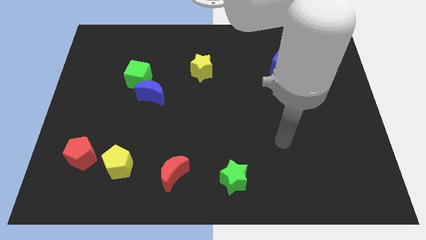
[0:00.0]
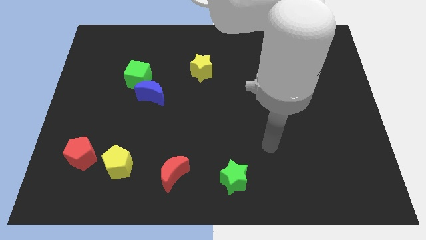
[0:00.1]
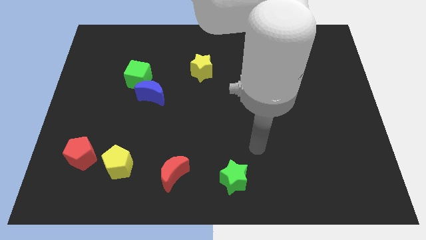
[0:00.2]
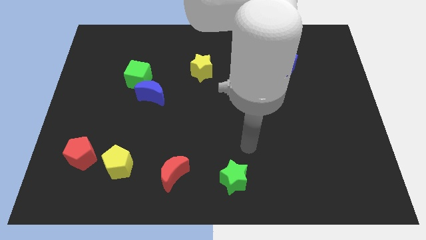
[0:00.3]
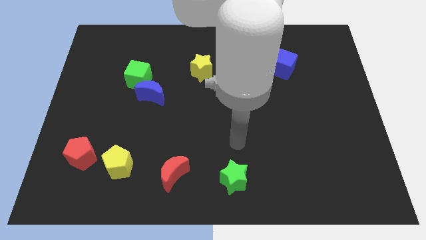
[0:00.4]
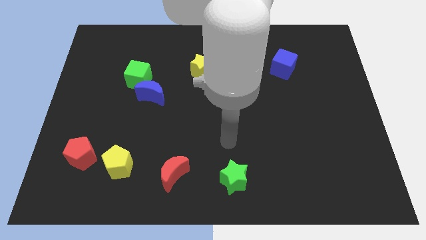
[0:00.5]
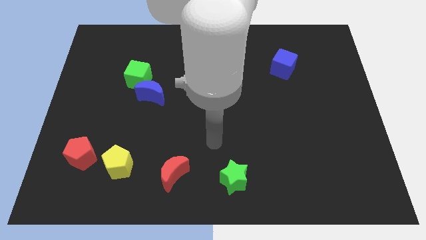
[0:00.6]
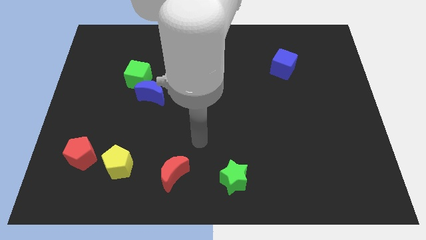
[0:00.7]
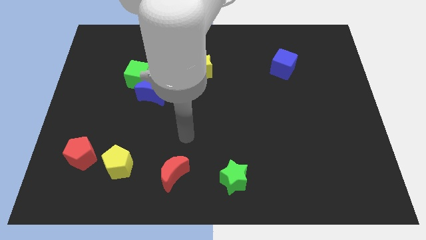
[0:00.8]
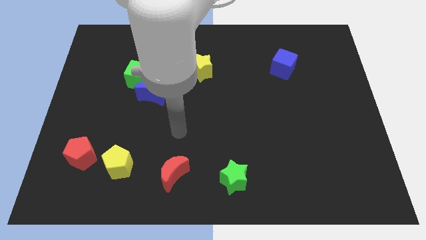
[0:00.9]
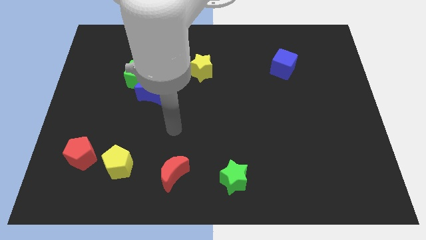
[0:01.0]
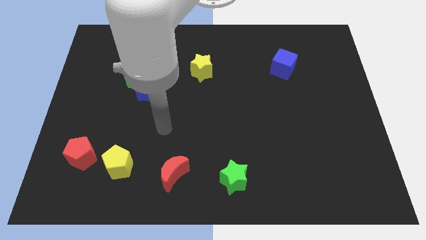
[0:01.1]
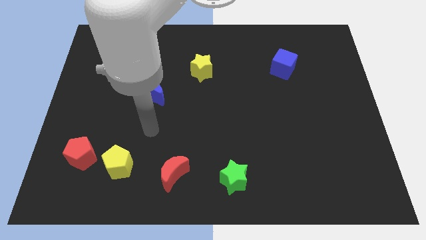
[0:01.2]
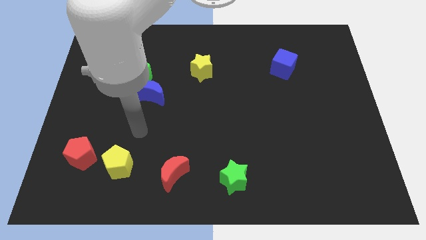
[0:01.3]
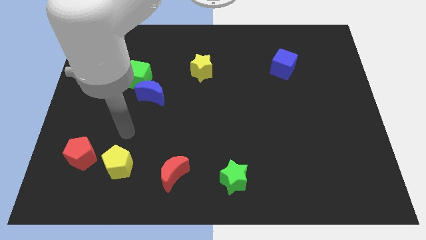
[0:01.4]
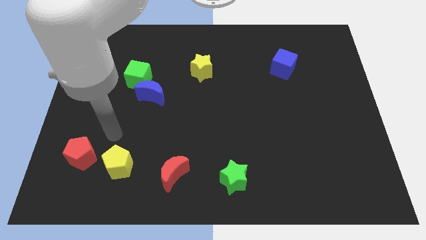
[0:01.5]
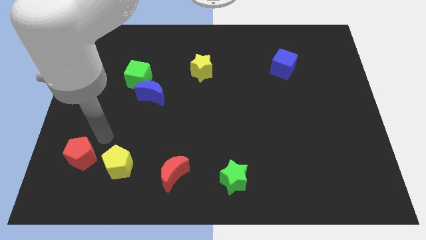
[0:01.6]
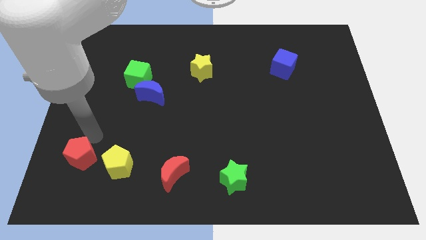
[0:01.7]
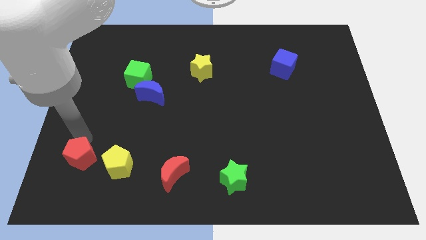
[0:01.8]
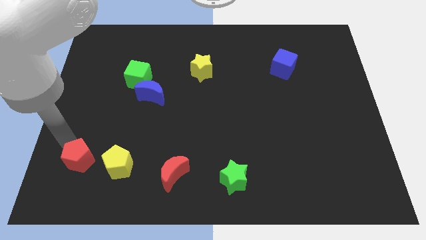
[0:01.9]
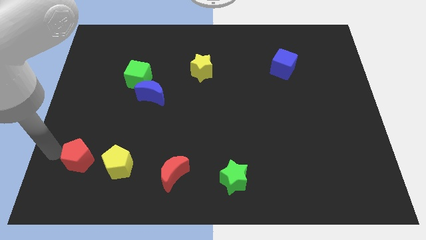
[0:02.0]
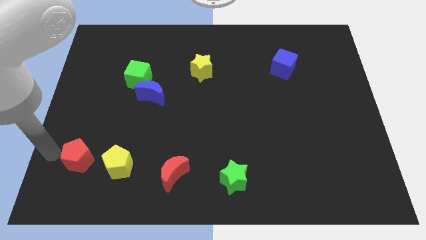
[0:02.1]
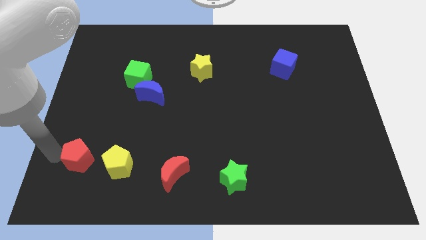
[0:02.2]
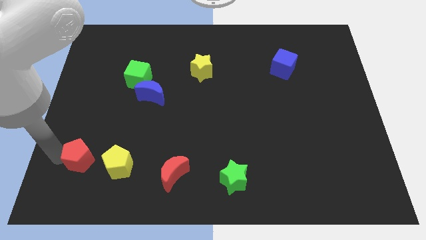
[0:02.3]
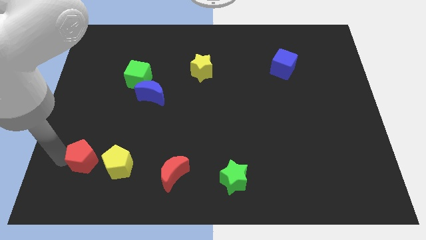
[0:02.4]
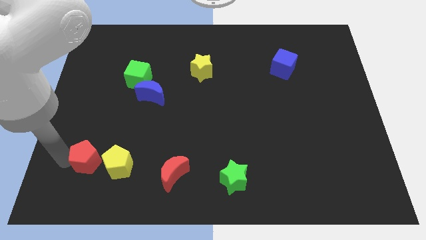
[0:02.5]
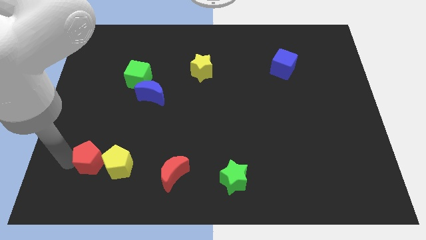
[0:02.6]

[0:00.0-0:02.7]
move the red pentagon towards the yellow pentagon

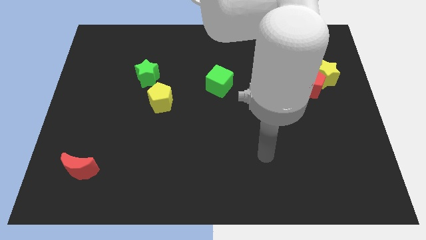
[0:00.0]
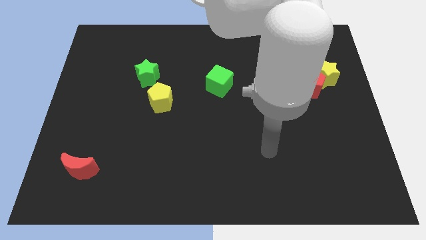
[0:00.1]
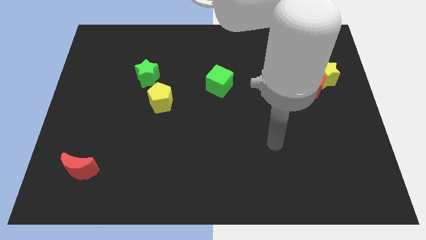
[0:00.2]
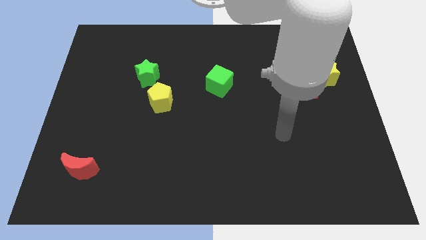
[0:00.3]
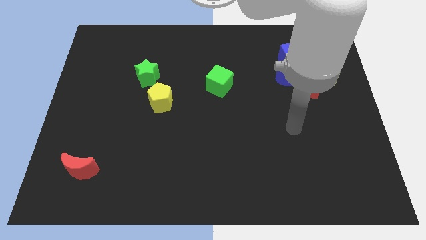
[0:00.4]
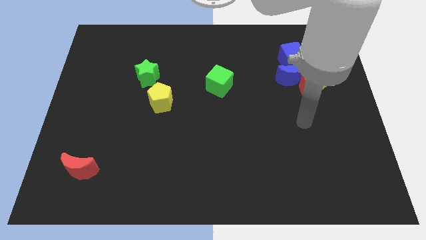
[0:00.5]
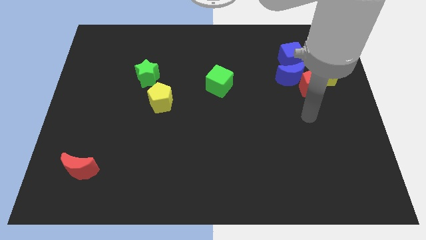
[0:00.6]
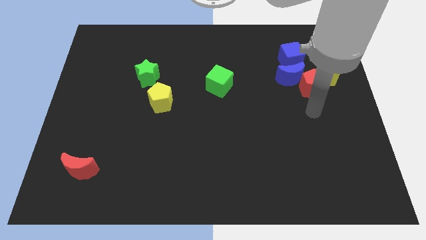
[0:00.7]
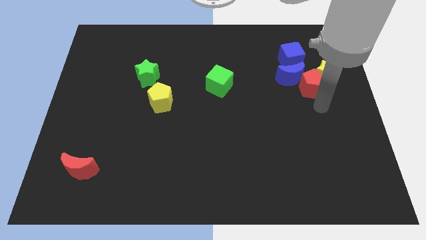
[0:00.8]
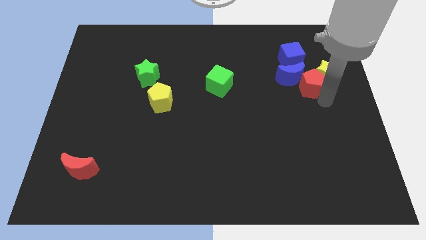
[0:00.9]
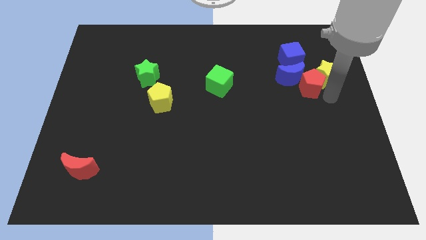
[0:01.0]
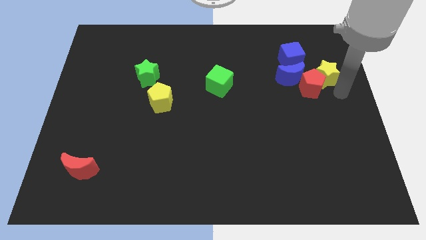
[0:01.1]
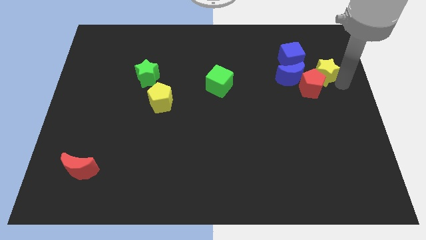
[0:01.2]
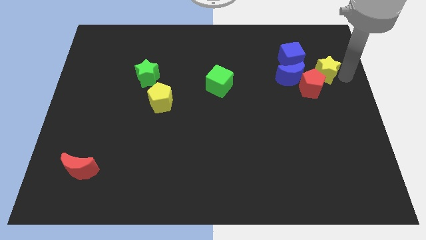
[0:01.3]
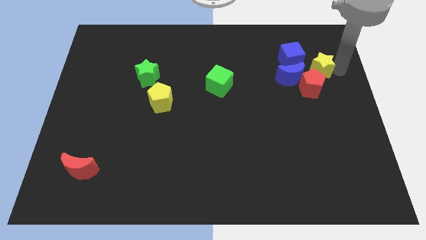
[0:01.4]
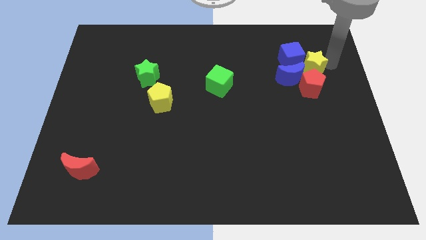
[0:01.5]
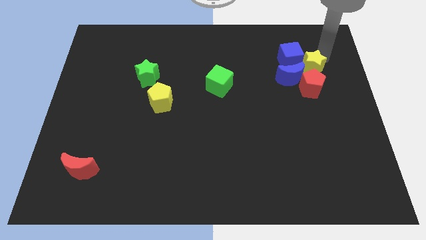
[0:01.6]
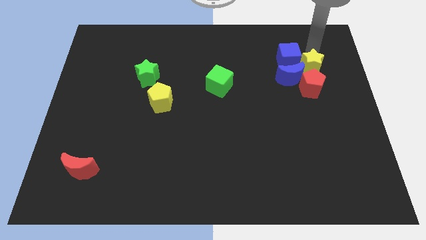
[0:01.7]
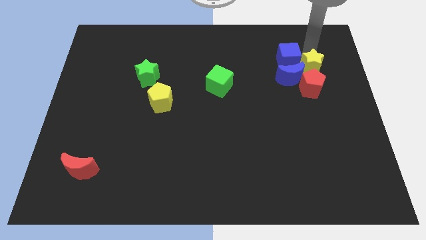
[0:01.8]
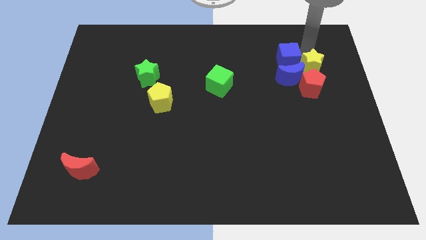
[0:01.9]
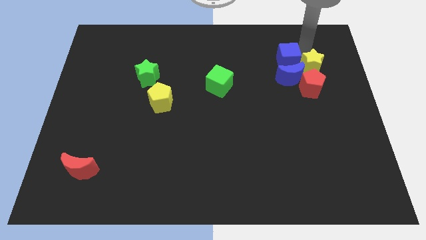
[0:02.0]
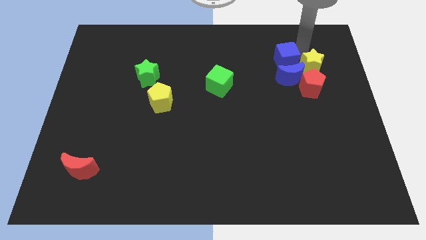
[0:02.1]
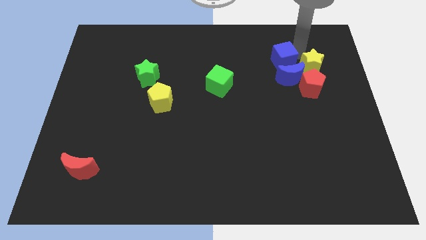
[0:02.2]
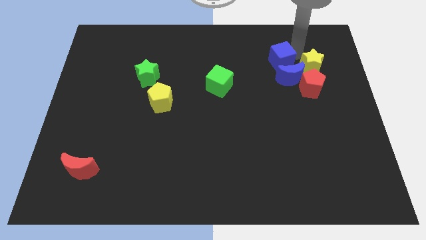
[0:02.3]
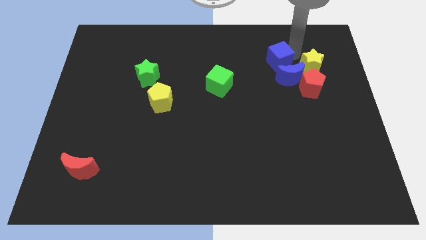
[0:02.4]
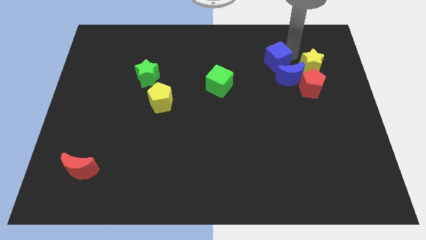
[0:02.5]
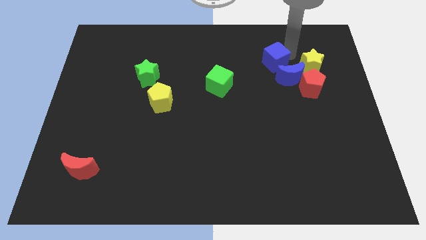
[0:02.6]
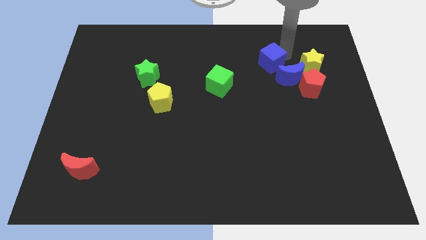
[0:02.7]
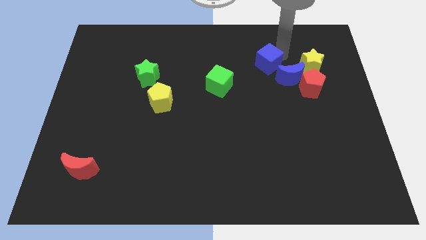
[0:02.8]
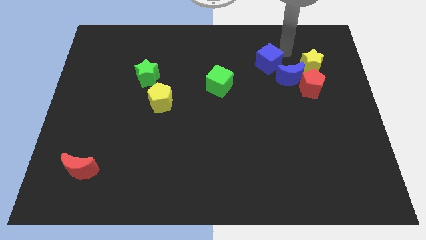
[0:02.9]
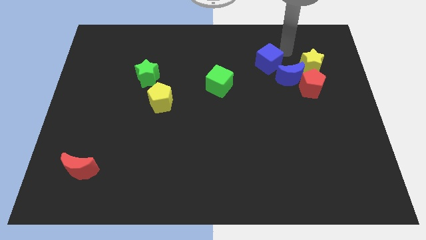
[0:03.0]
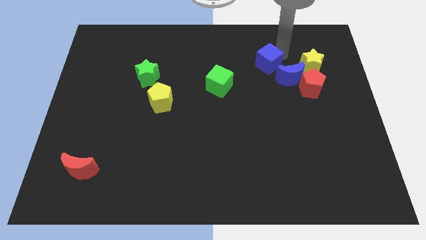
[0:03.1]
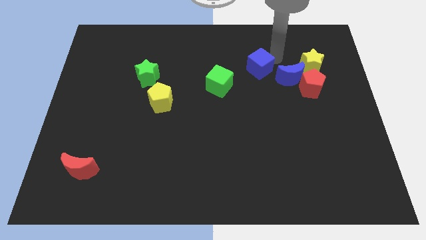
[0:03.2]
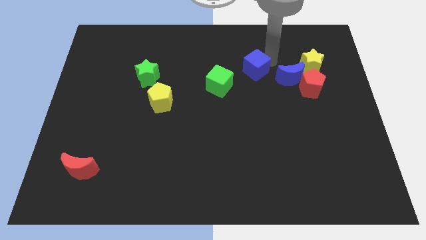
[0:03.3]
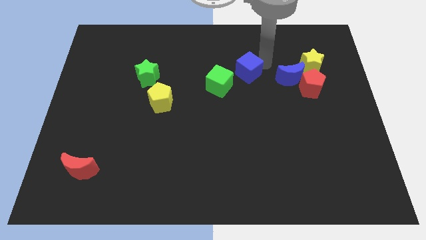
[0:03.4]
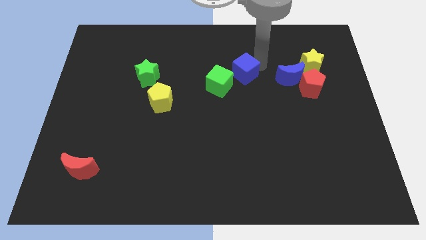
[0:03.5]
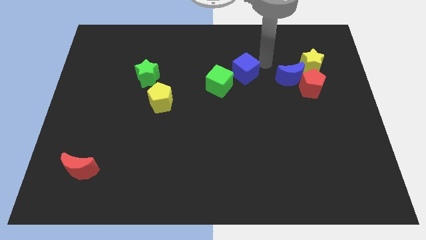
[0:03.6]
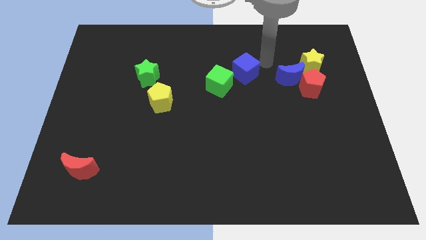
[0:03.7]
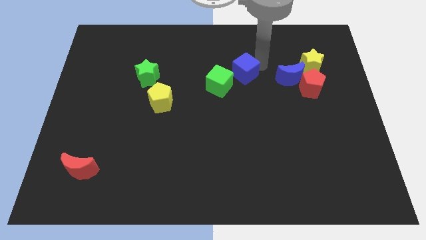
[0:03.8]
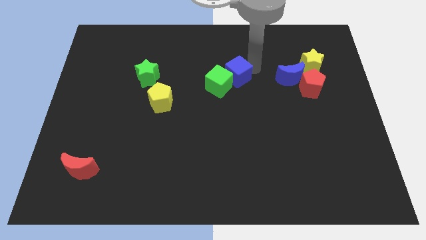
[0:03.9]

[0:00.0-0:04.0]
put the blue cube to the green cube

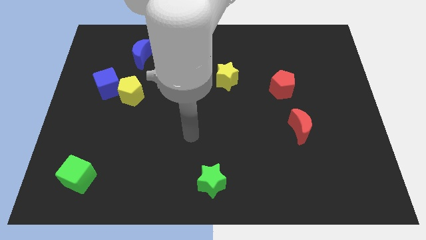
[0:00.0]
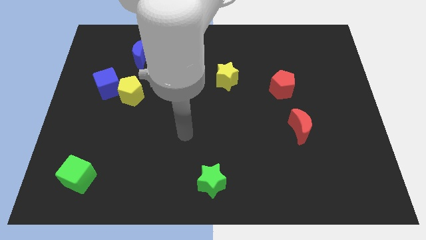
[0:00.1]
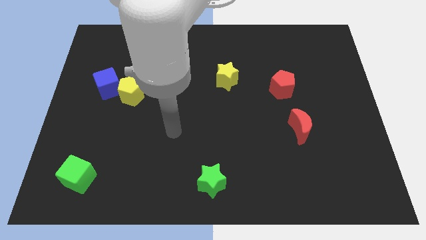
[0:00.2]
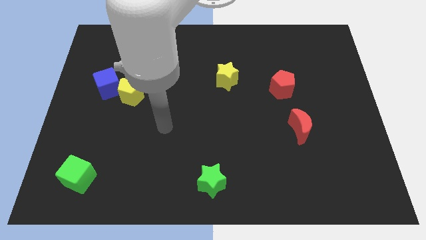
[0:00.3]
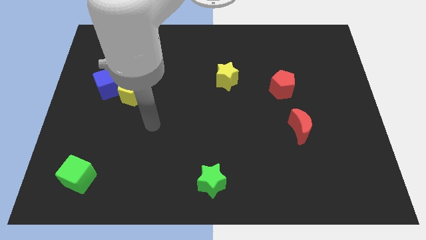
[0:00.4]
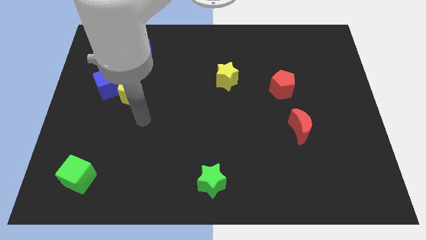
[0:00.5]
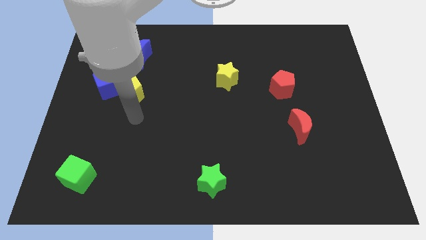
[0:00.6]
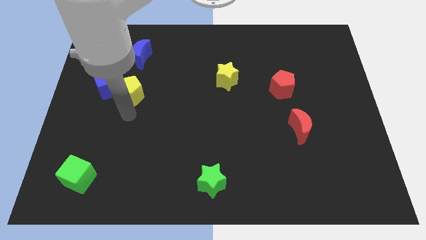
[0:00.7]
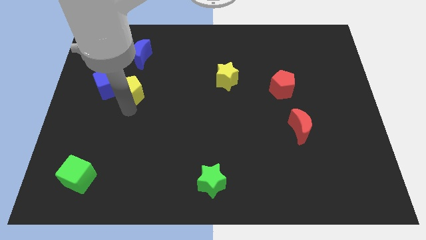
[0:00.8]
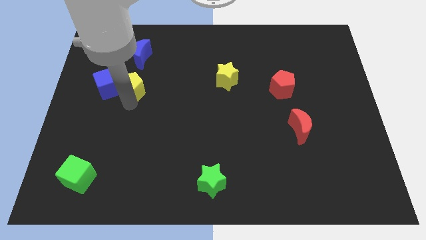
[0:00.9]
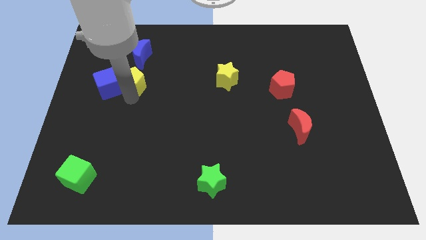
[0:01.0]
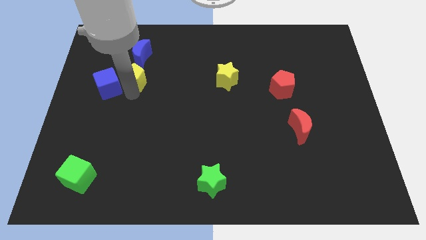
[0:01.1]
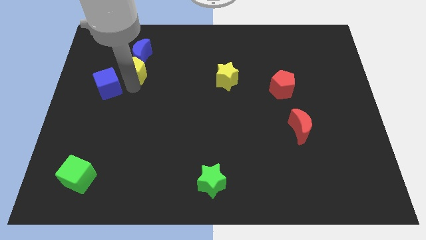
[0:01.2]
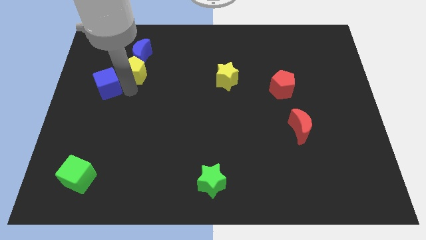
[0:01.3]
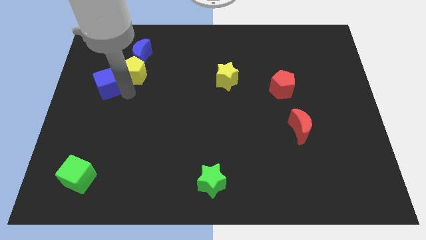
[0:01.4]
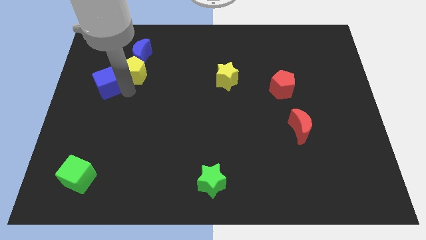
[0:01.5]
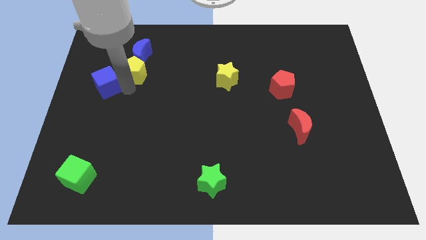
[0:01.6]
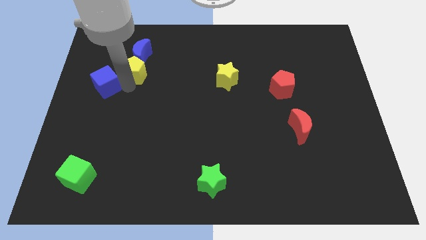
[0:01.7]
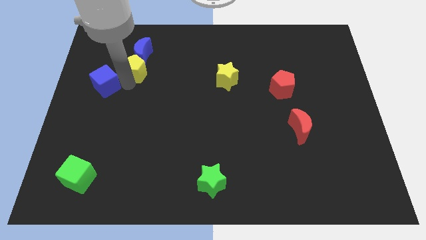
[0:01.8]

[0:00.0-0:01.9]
move the yellow pentagon close to the blue moon
